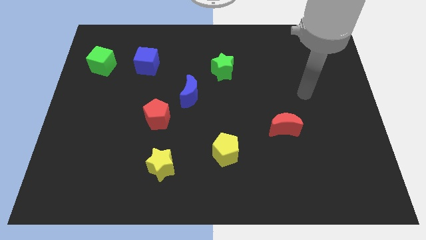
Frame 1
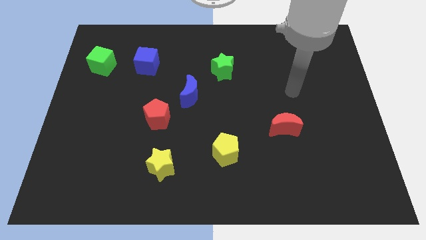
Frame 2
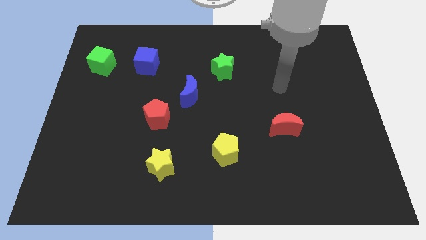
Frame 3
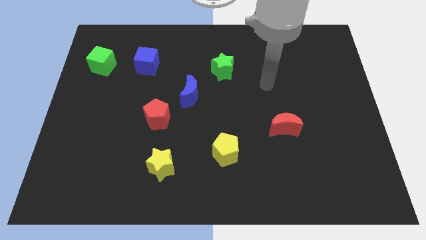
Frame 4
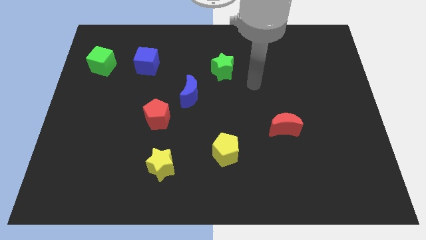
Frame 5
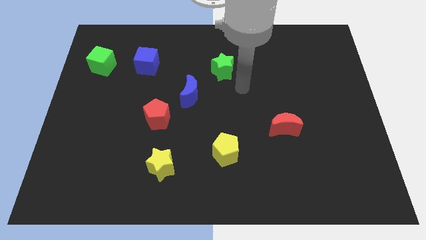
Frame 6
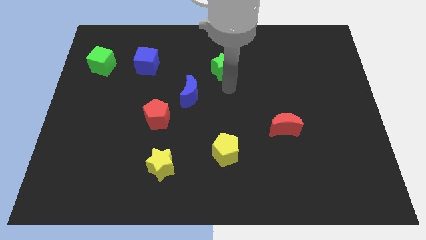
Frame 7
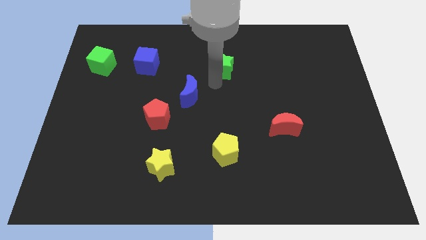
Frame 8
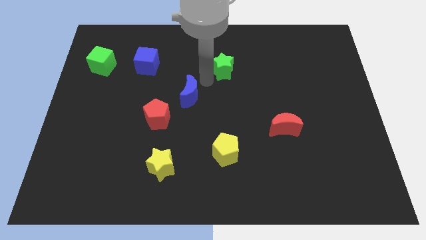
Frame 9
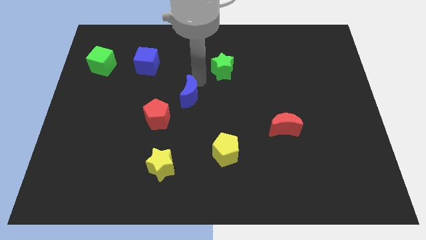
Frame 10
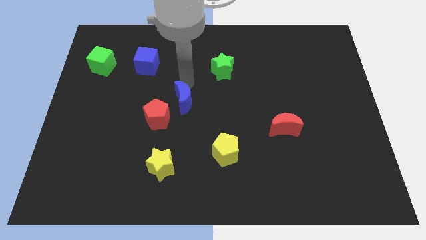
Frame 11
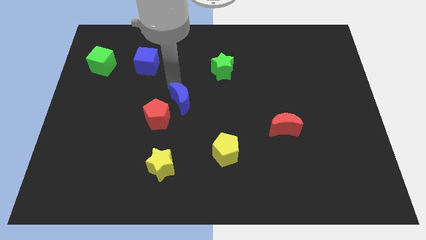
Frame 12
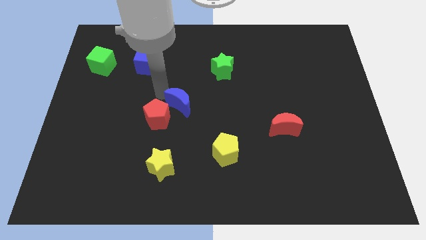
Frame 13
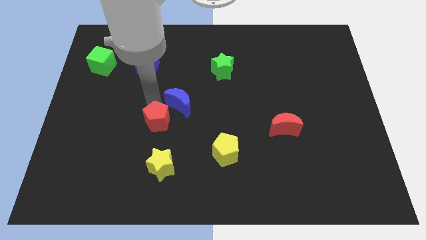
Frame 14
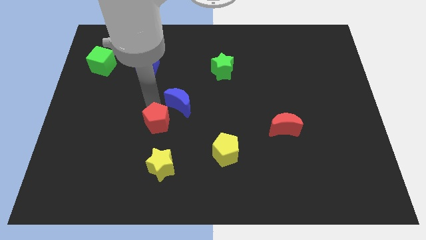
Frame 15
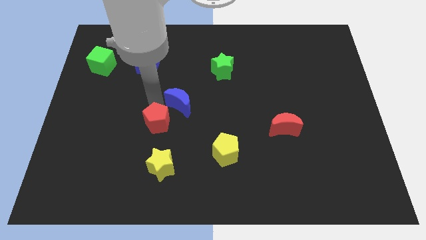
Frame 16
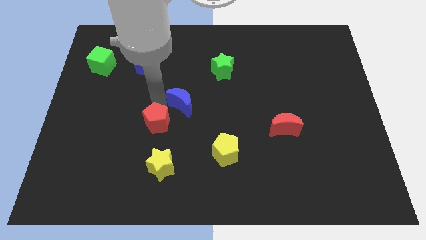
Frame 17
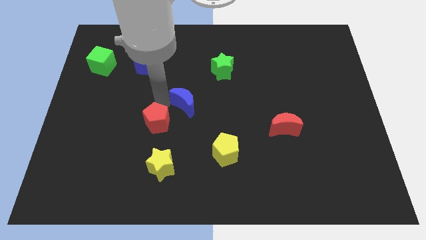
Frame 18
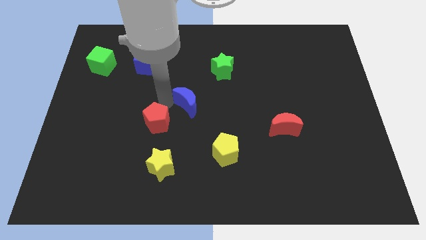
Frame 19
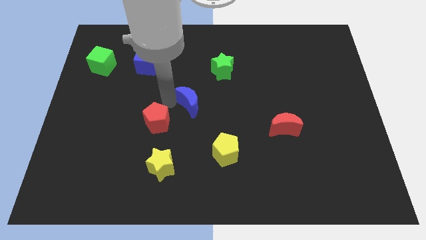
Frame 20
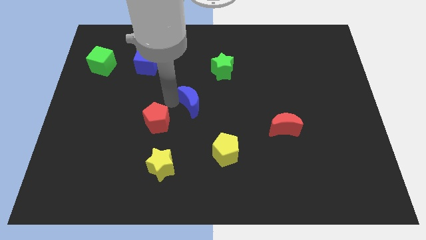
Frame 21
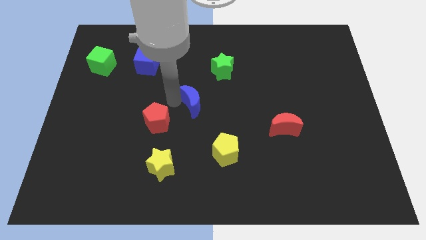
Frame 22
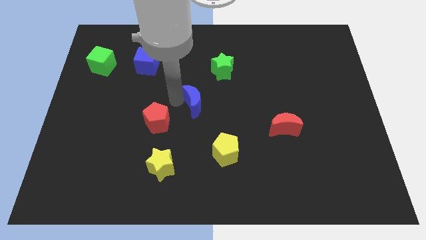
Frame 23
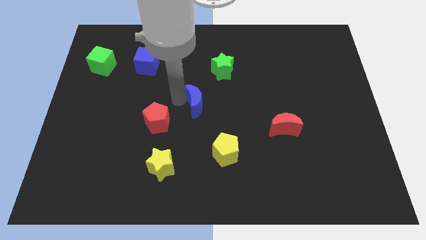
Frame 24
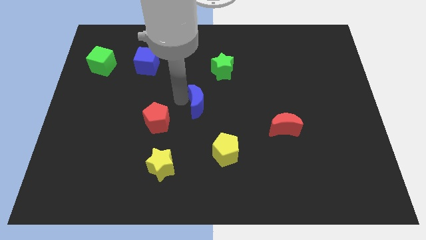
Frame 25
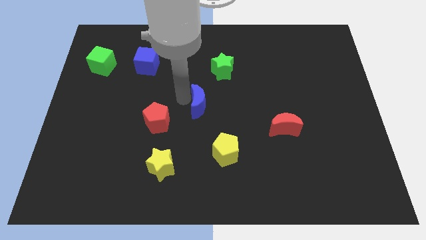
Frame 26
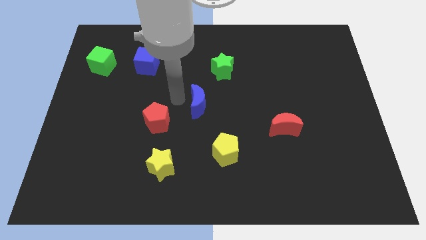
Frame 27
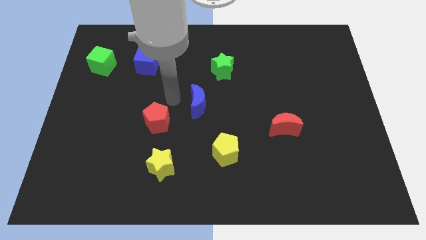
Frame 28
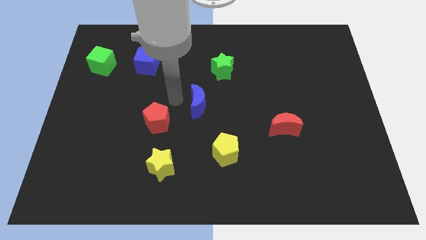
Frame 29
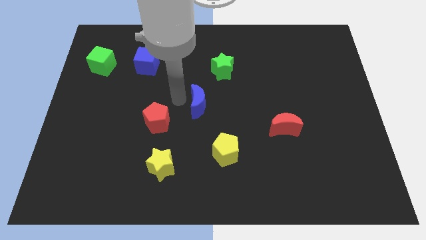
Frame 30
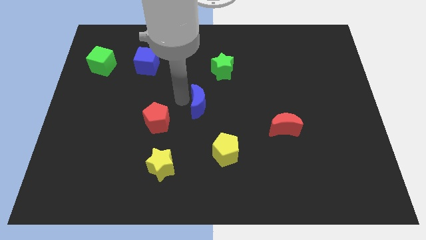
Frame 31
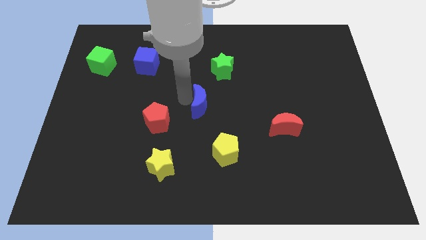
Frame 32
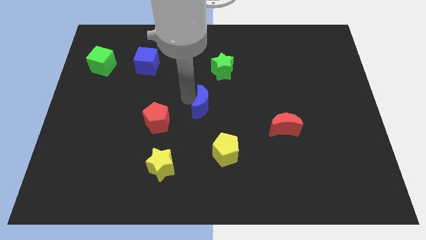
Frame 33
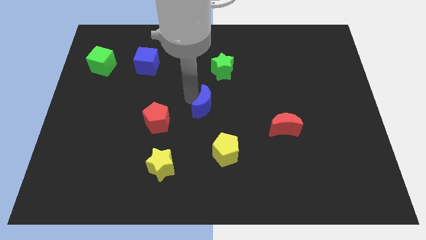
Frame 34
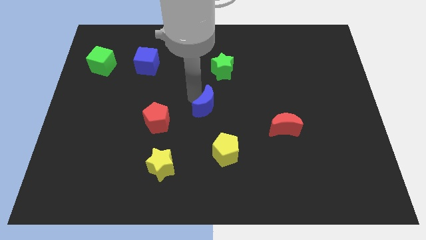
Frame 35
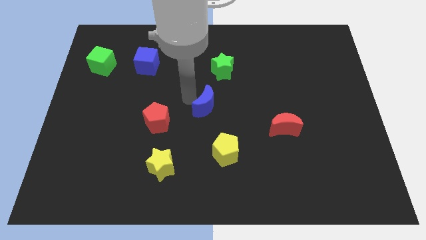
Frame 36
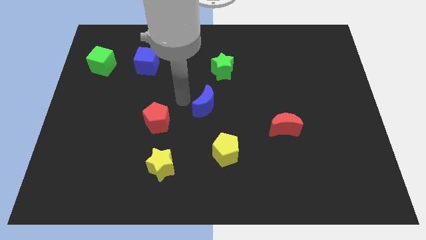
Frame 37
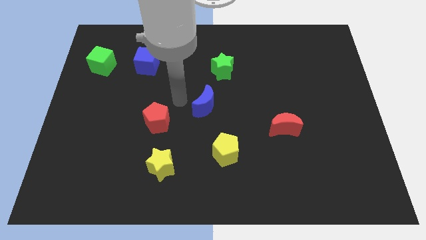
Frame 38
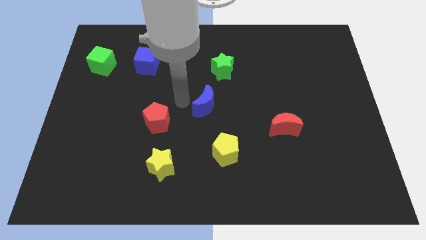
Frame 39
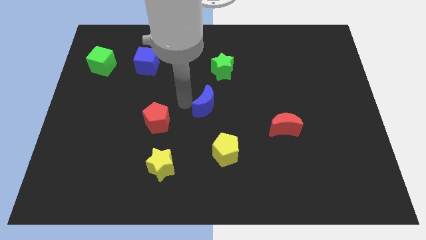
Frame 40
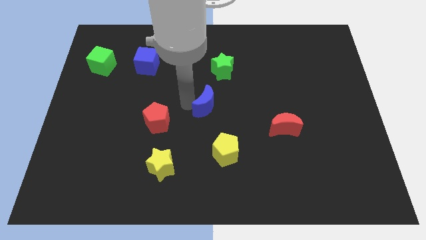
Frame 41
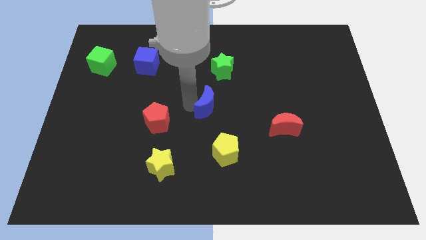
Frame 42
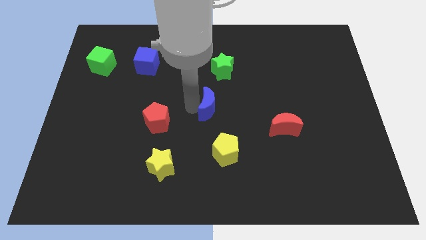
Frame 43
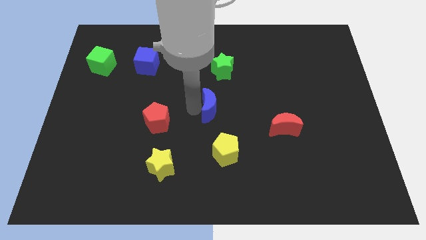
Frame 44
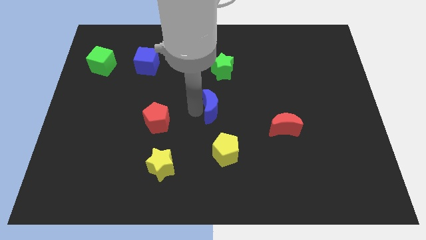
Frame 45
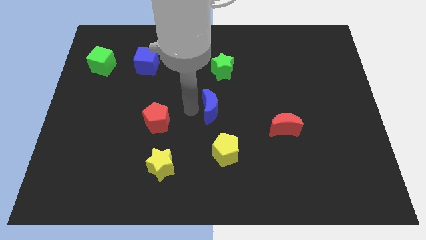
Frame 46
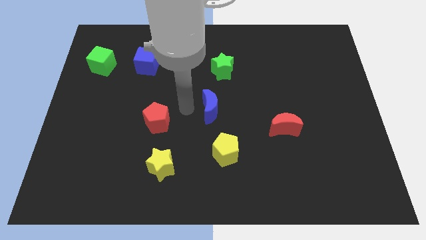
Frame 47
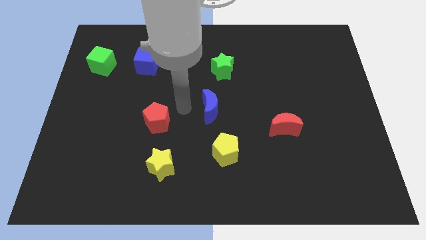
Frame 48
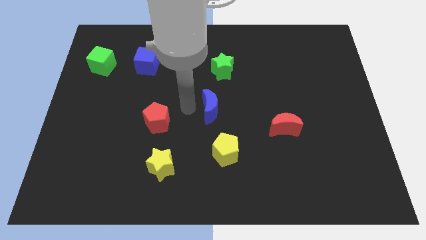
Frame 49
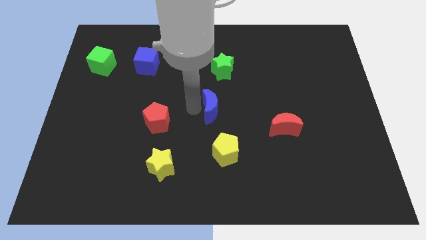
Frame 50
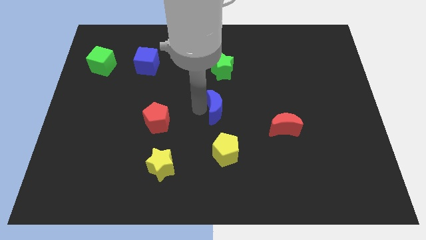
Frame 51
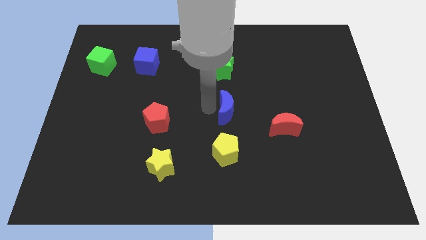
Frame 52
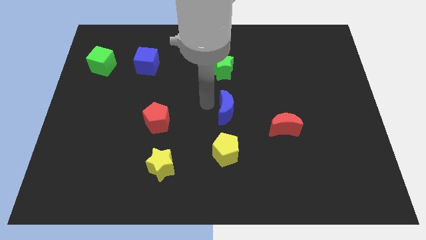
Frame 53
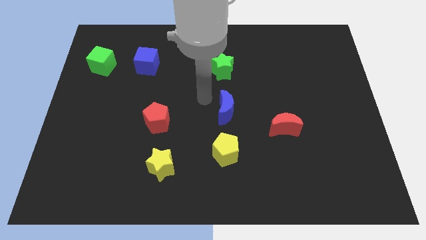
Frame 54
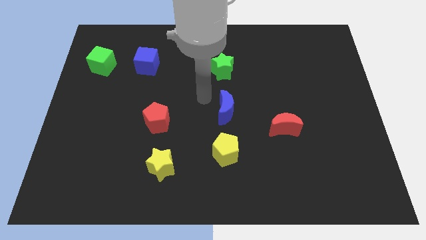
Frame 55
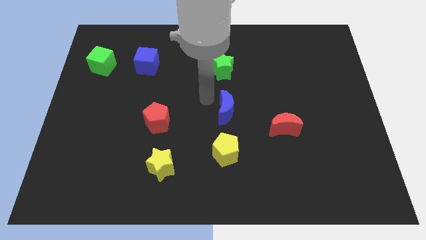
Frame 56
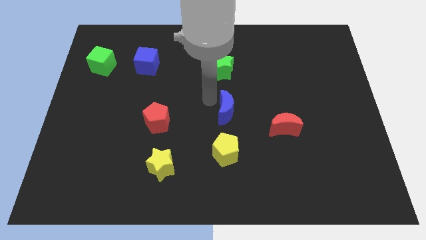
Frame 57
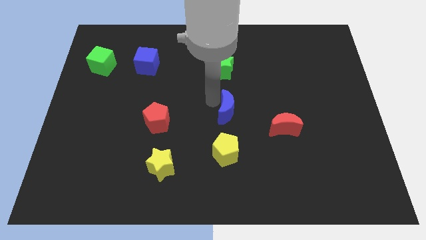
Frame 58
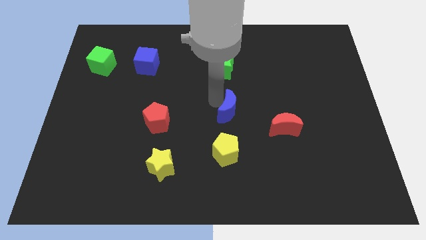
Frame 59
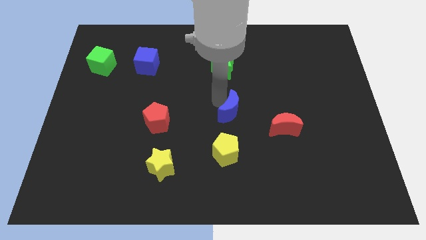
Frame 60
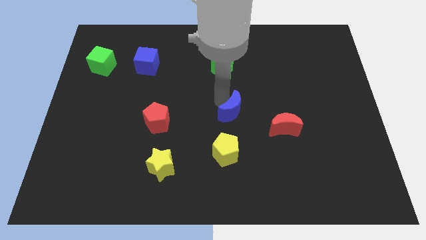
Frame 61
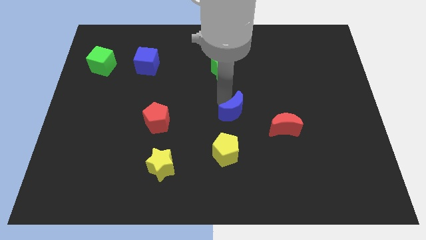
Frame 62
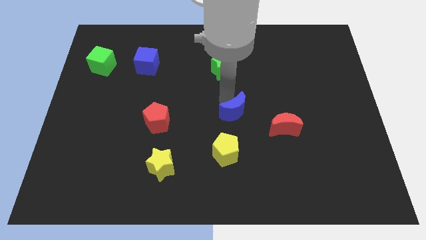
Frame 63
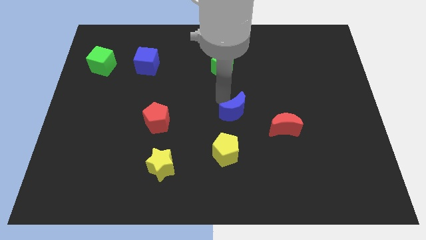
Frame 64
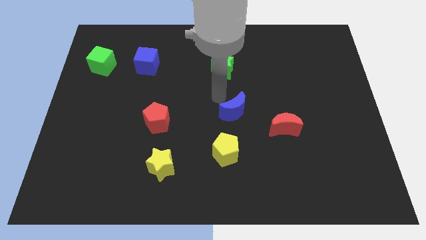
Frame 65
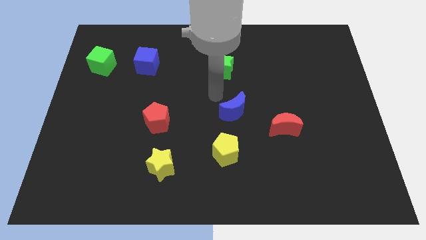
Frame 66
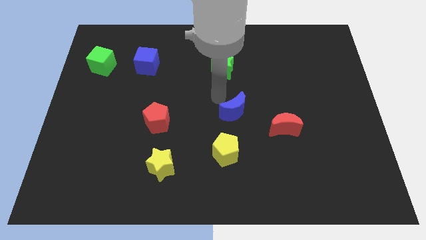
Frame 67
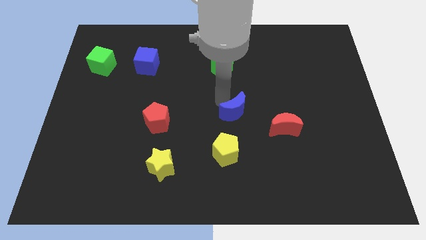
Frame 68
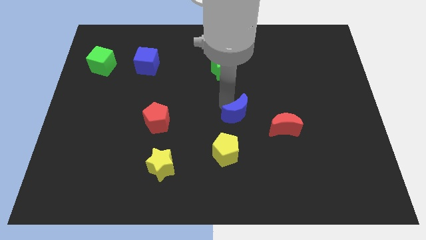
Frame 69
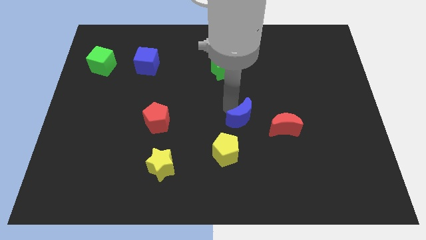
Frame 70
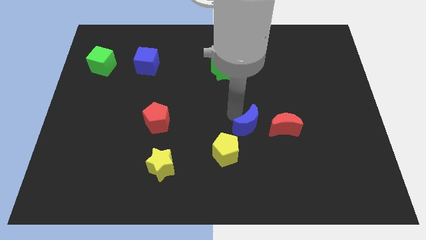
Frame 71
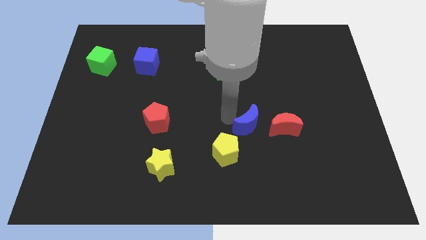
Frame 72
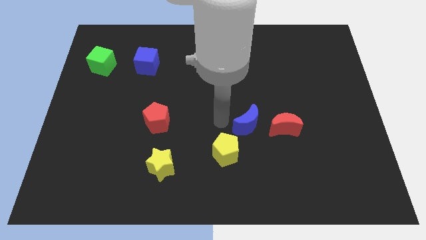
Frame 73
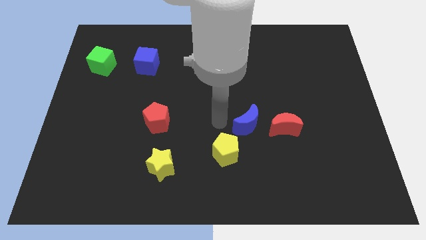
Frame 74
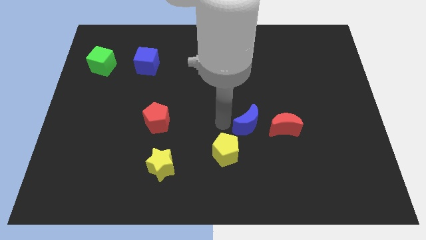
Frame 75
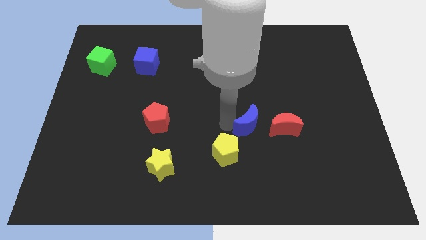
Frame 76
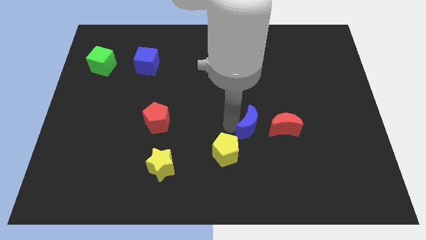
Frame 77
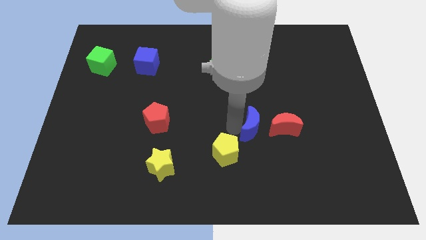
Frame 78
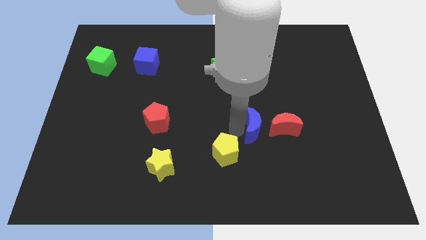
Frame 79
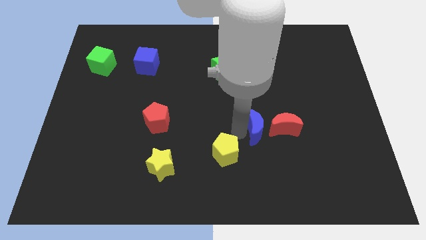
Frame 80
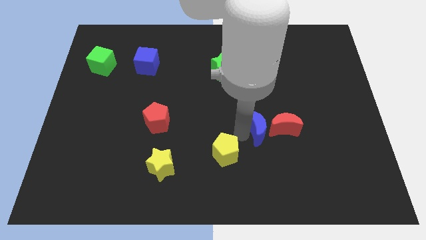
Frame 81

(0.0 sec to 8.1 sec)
slide the blue moon close to the red moon
